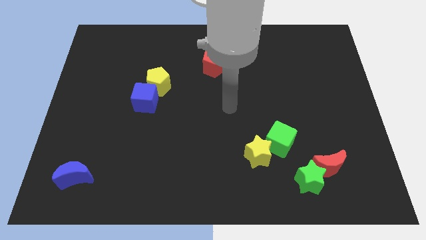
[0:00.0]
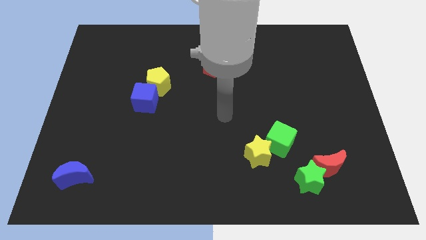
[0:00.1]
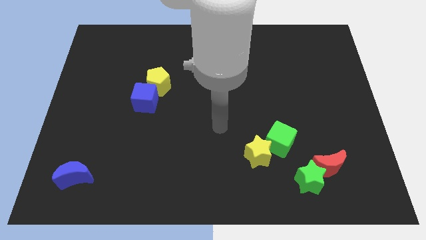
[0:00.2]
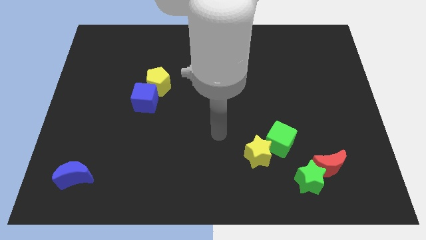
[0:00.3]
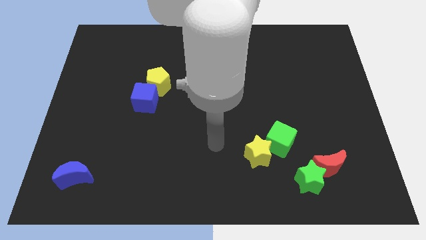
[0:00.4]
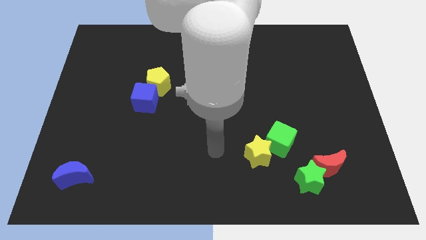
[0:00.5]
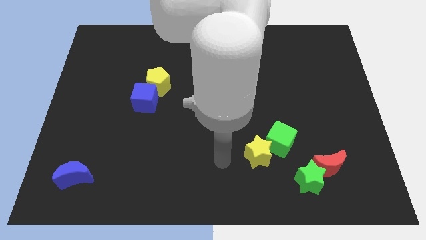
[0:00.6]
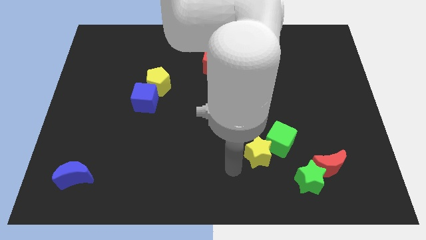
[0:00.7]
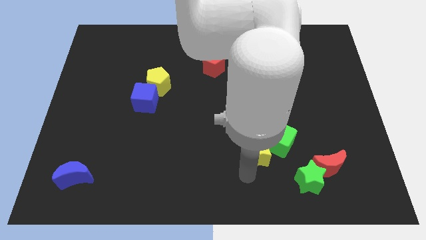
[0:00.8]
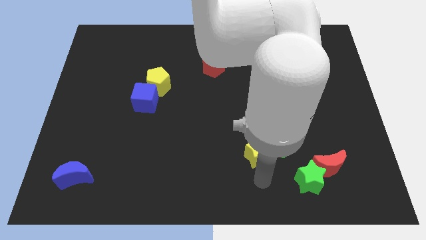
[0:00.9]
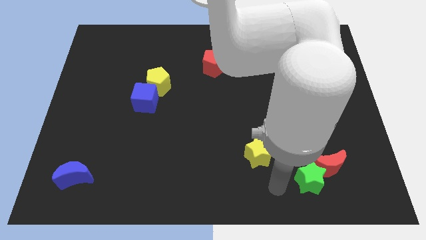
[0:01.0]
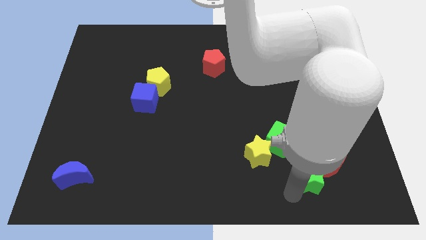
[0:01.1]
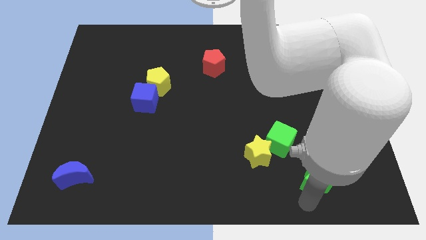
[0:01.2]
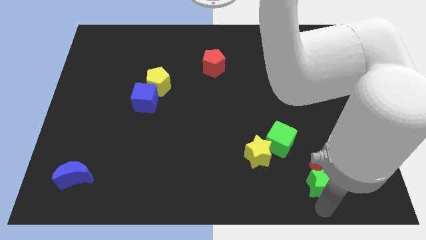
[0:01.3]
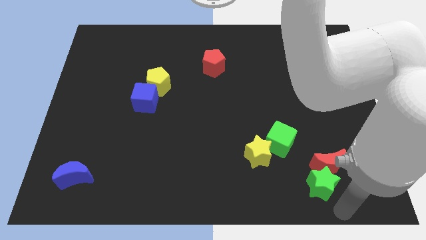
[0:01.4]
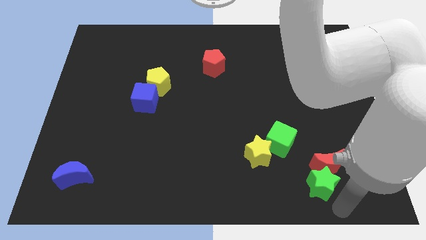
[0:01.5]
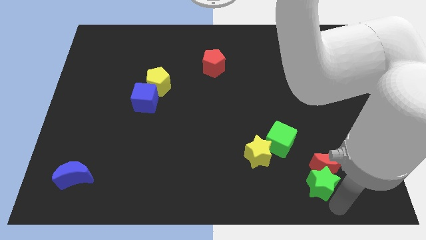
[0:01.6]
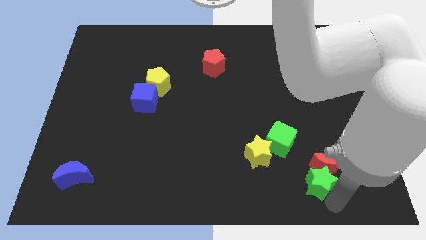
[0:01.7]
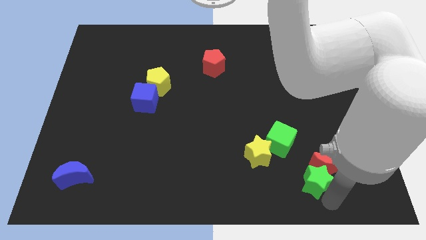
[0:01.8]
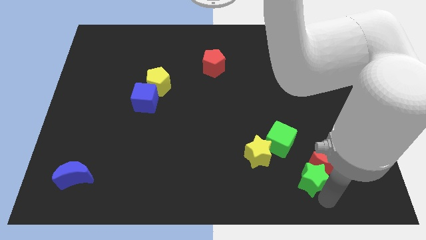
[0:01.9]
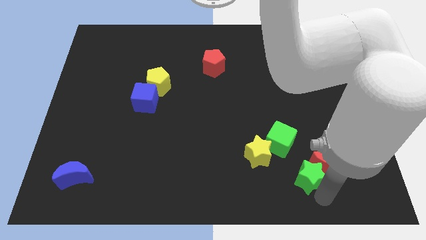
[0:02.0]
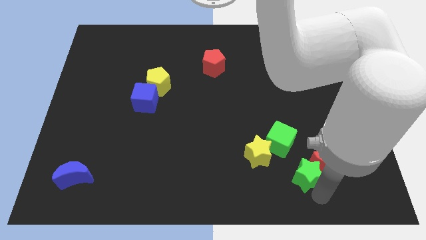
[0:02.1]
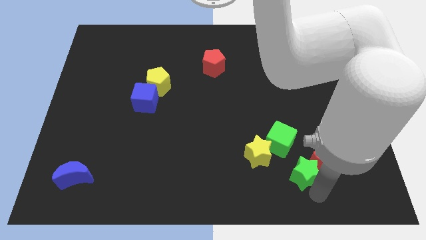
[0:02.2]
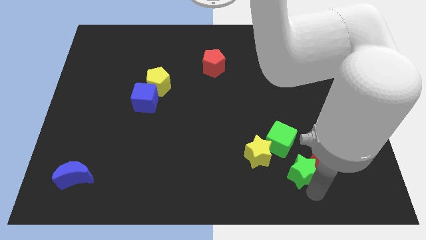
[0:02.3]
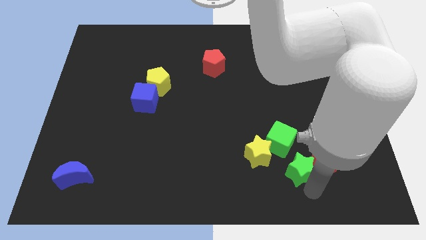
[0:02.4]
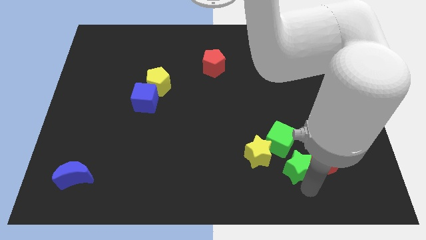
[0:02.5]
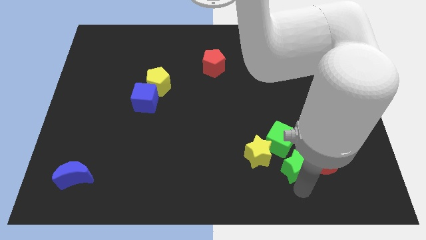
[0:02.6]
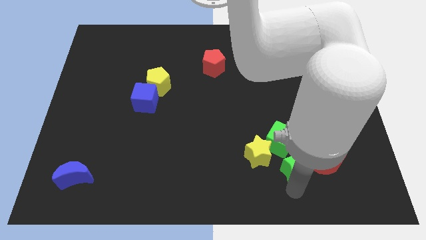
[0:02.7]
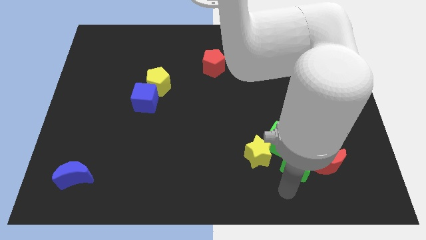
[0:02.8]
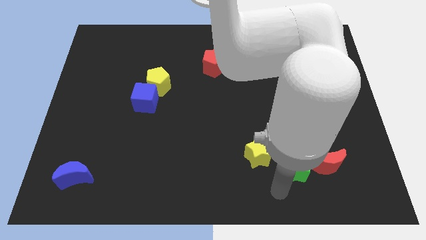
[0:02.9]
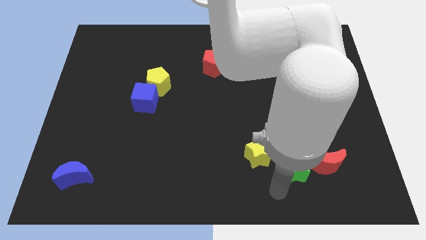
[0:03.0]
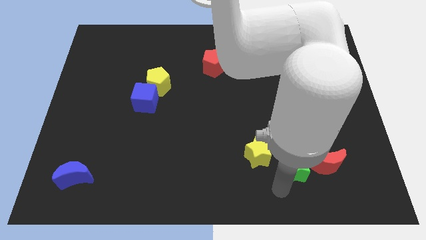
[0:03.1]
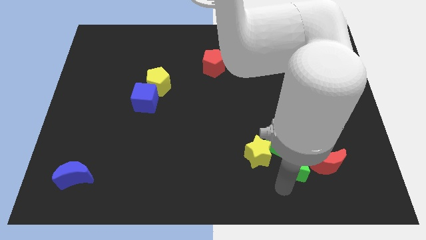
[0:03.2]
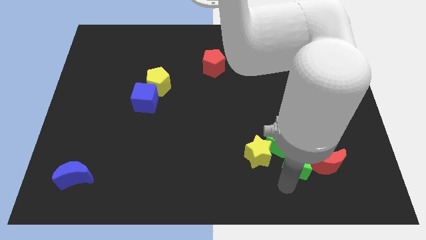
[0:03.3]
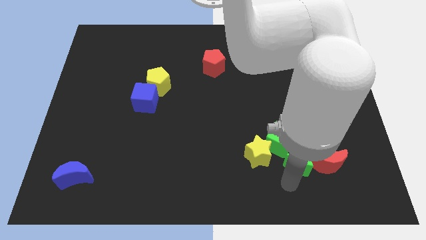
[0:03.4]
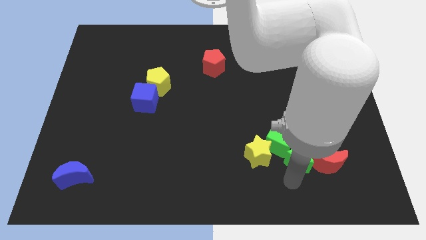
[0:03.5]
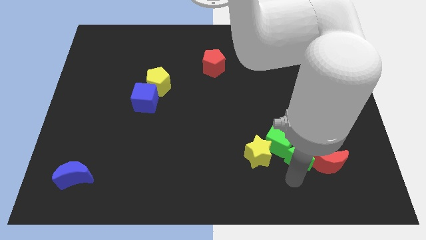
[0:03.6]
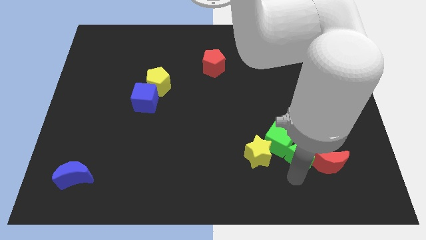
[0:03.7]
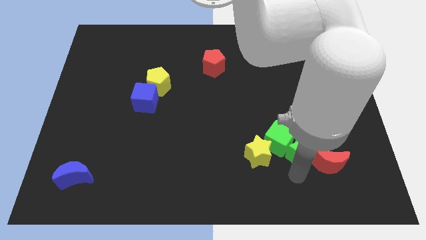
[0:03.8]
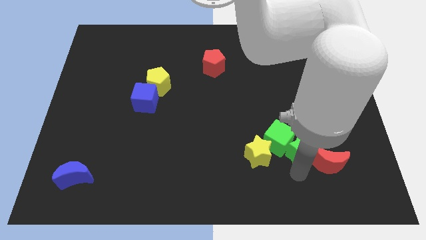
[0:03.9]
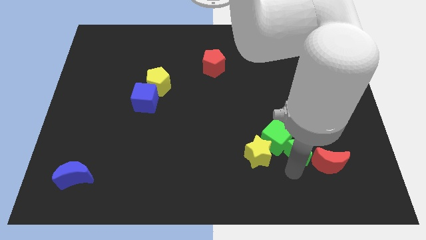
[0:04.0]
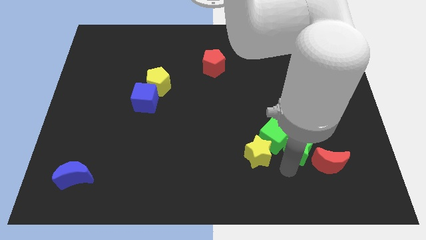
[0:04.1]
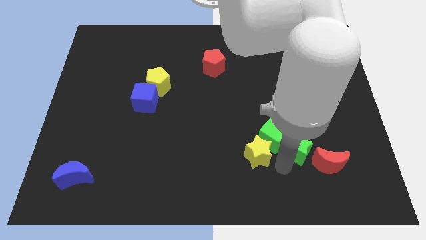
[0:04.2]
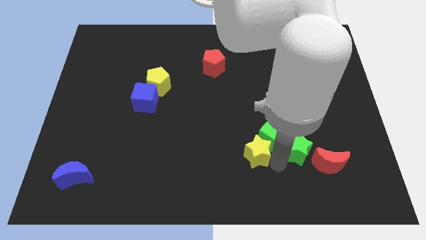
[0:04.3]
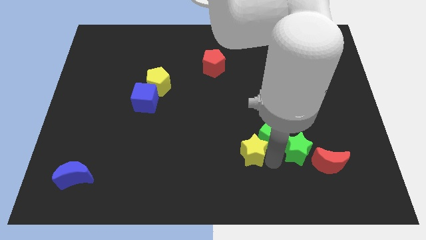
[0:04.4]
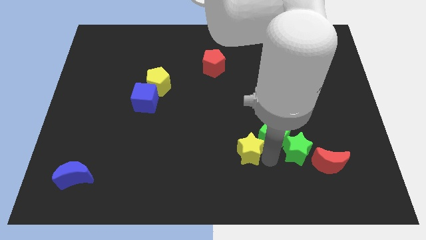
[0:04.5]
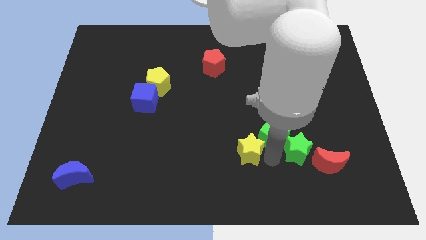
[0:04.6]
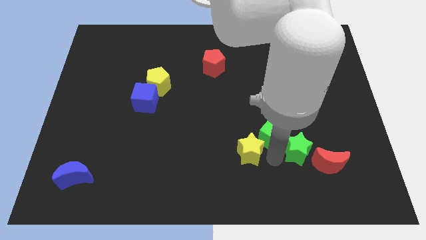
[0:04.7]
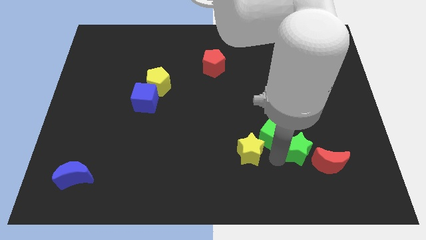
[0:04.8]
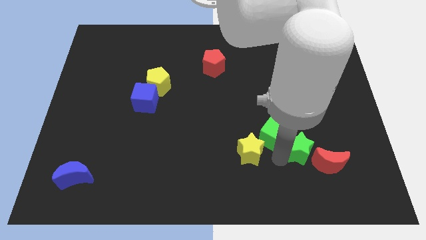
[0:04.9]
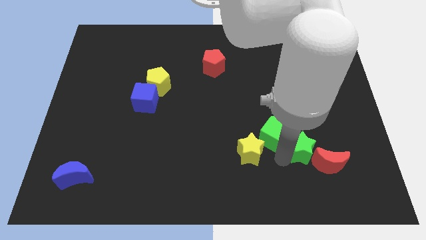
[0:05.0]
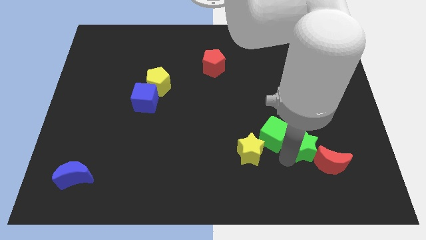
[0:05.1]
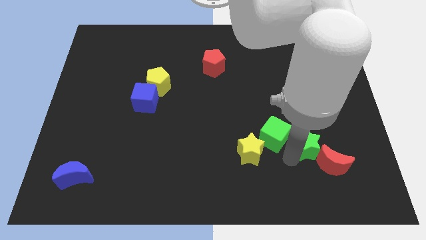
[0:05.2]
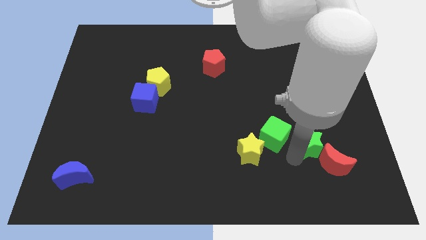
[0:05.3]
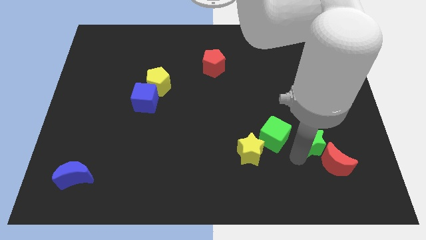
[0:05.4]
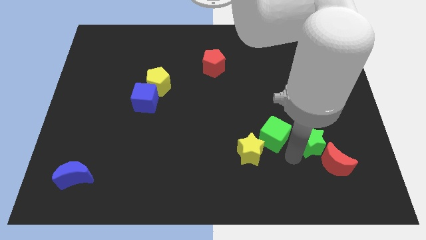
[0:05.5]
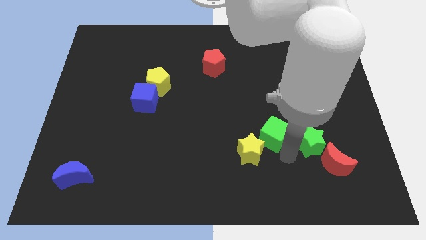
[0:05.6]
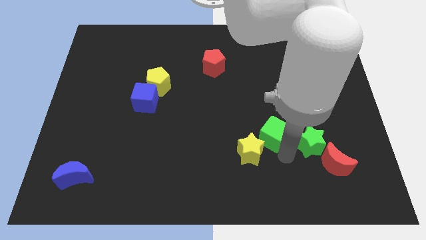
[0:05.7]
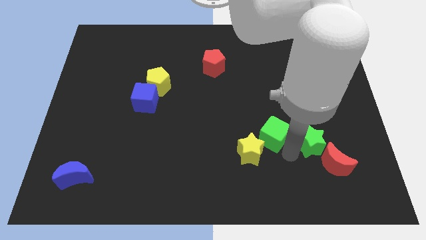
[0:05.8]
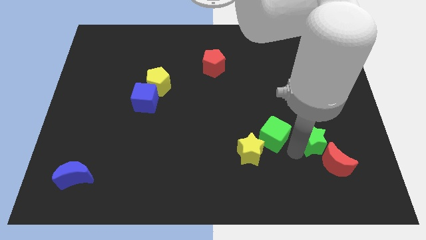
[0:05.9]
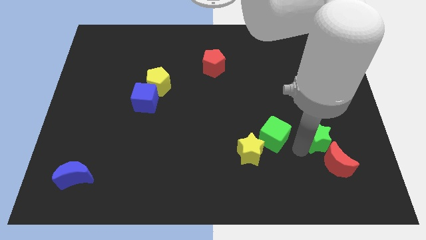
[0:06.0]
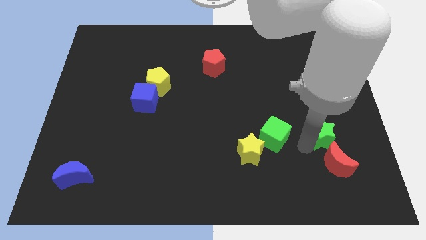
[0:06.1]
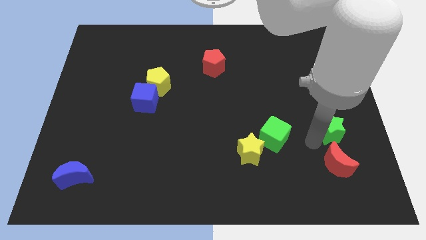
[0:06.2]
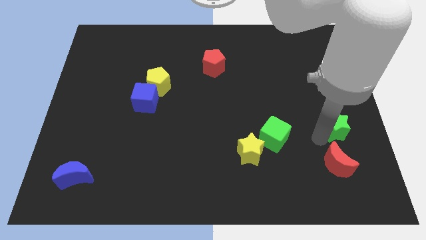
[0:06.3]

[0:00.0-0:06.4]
push the green star to the center right

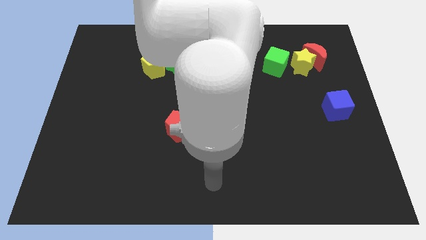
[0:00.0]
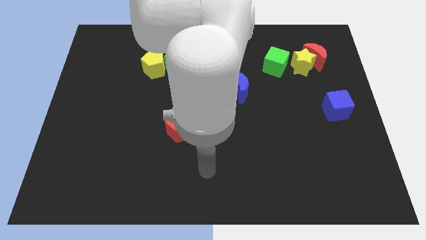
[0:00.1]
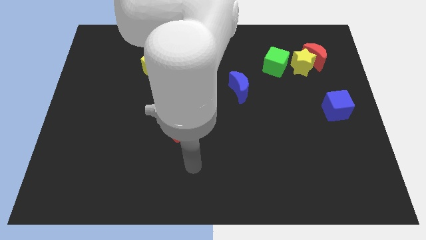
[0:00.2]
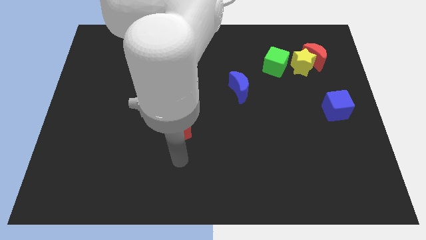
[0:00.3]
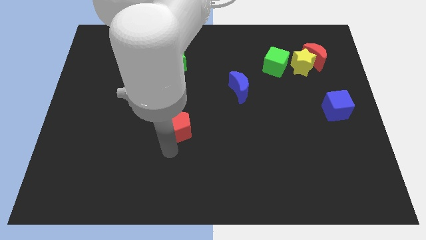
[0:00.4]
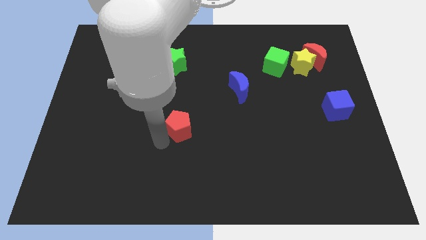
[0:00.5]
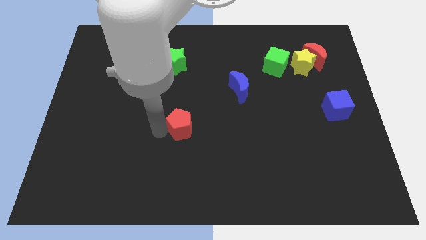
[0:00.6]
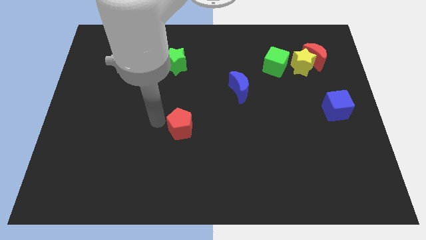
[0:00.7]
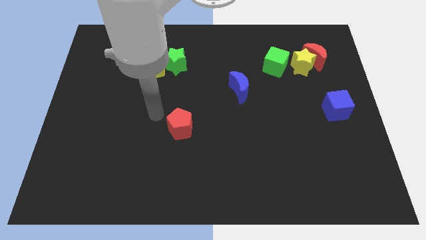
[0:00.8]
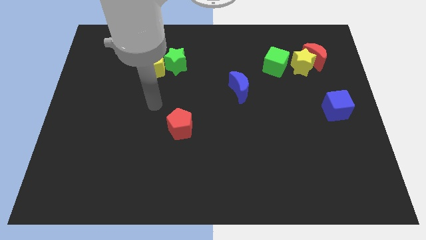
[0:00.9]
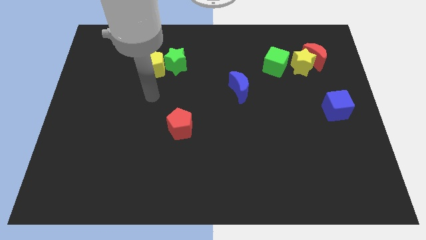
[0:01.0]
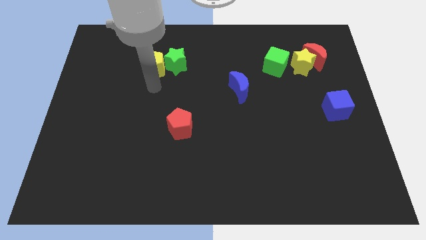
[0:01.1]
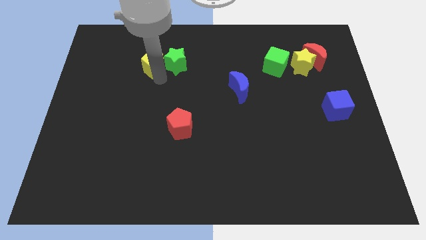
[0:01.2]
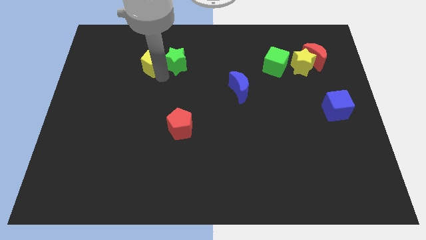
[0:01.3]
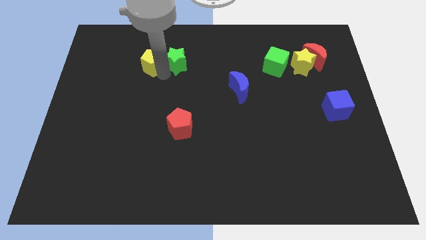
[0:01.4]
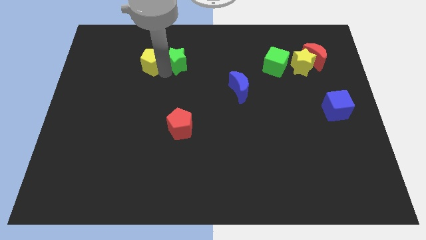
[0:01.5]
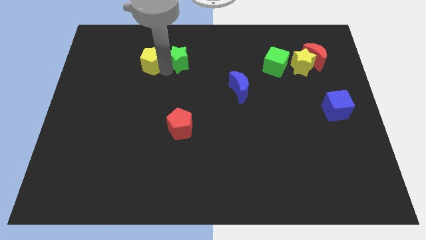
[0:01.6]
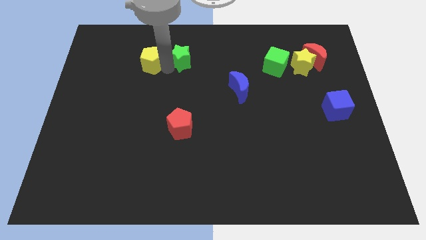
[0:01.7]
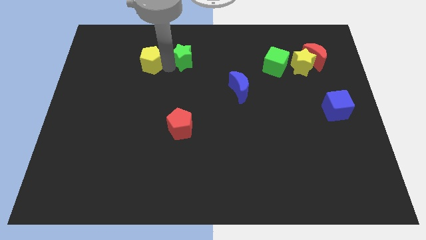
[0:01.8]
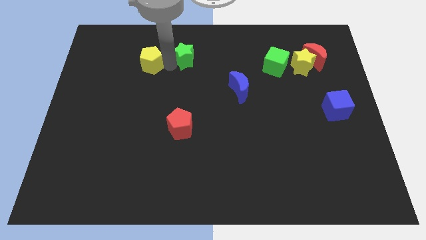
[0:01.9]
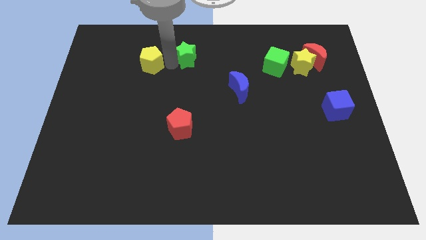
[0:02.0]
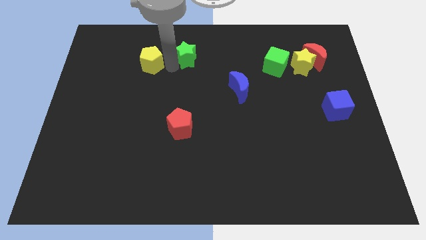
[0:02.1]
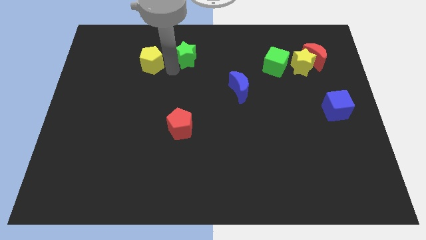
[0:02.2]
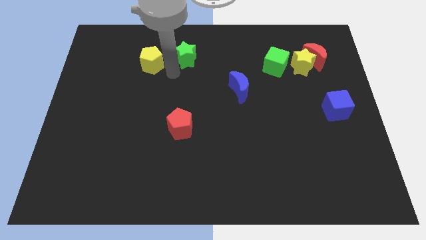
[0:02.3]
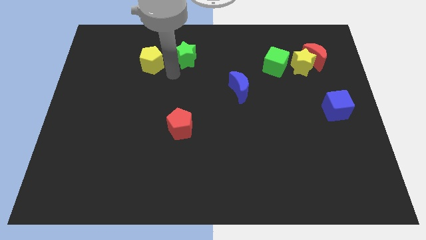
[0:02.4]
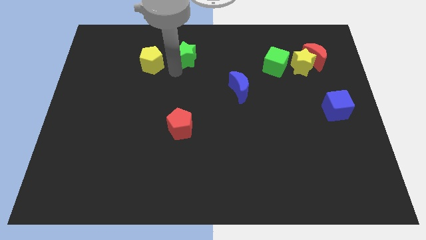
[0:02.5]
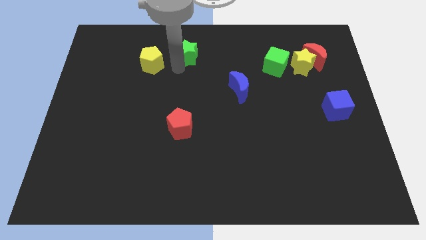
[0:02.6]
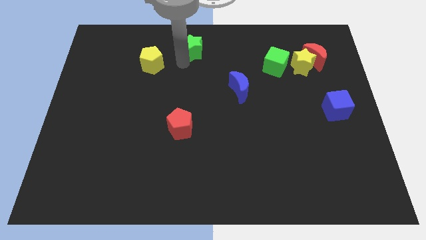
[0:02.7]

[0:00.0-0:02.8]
put the green star to the top
